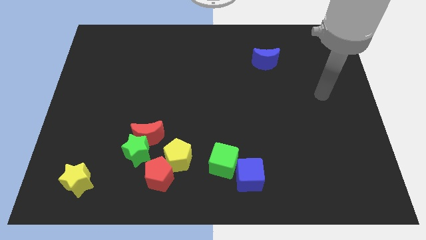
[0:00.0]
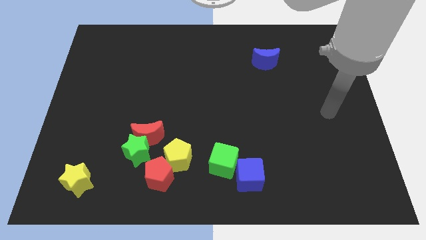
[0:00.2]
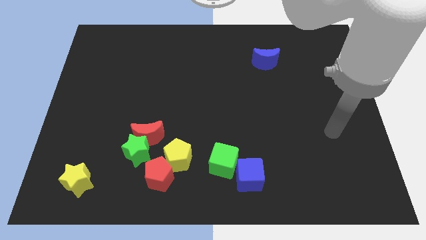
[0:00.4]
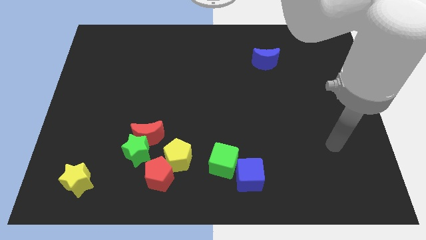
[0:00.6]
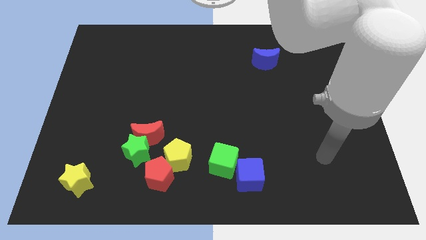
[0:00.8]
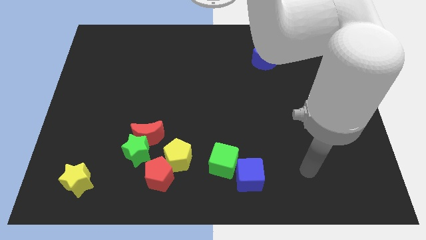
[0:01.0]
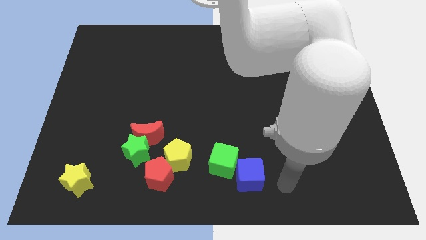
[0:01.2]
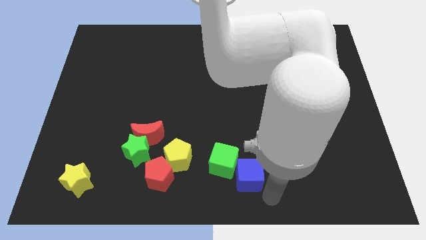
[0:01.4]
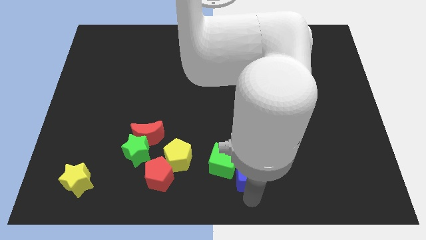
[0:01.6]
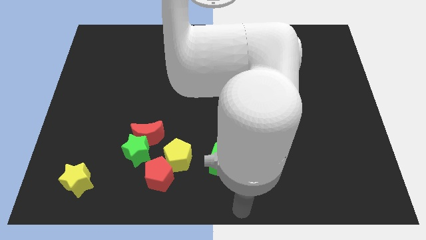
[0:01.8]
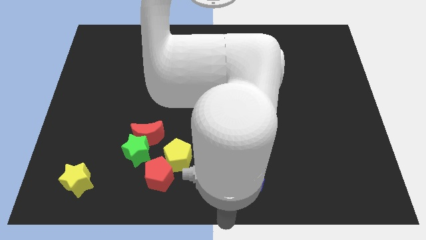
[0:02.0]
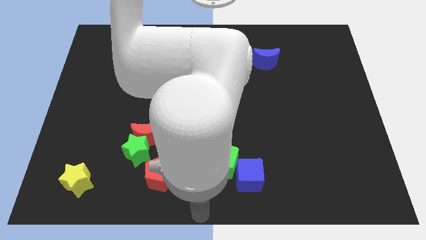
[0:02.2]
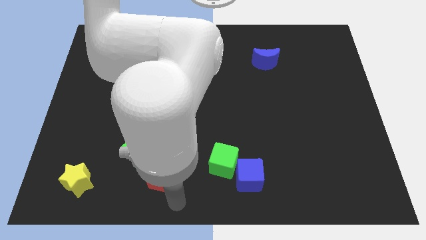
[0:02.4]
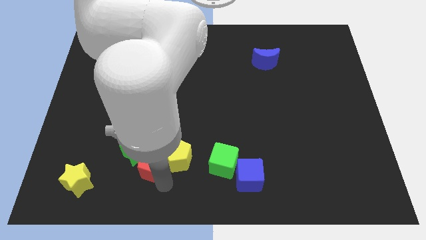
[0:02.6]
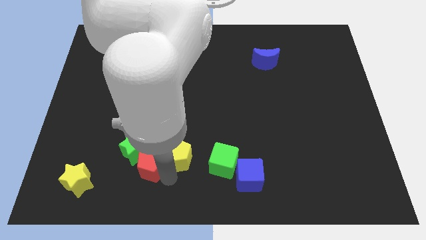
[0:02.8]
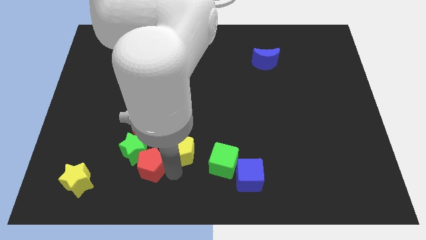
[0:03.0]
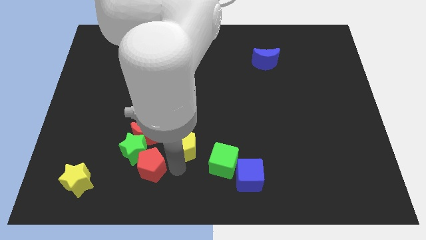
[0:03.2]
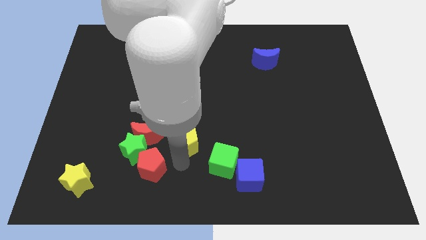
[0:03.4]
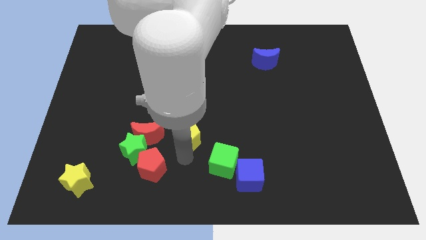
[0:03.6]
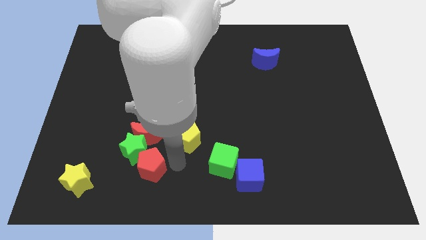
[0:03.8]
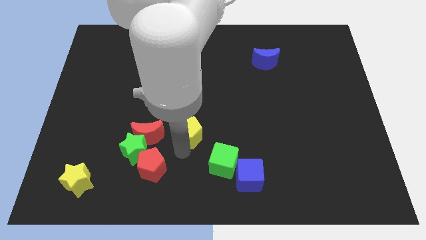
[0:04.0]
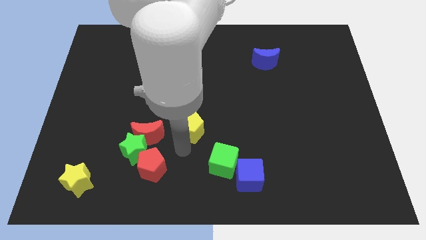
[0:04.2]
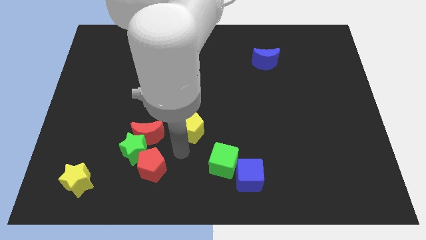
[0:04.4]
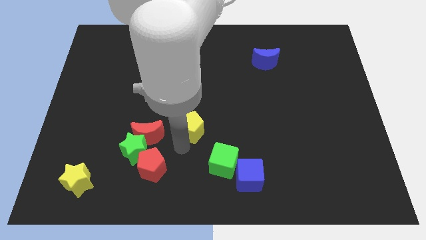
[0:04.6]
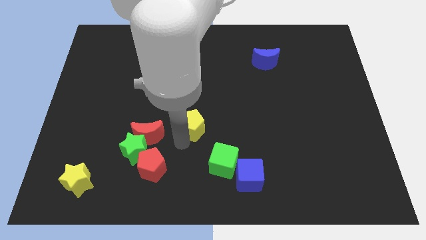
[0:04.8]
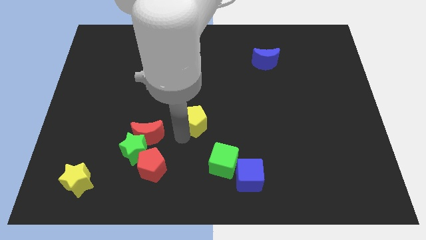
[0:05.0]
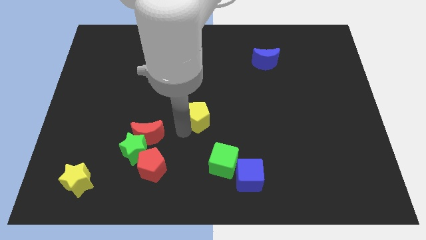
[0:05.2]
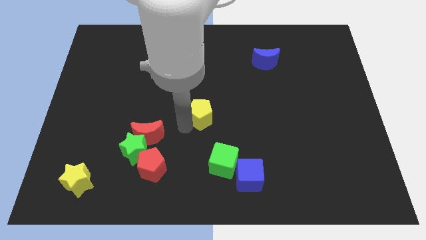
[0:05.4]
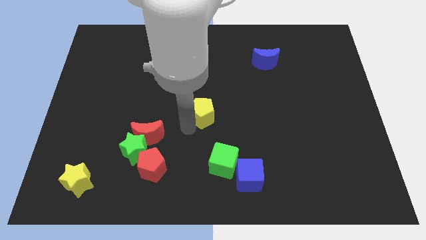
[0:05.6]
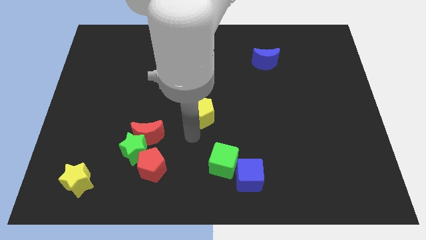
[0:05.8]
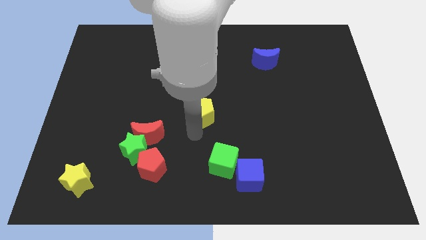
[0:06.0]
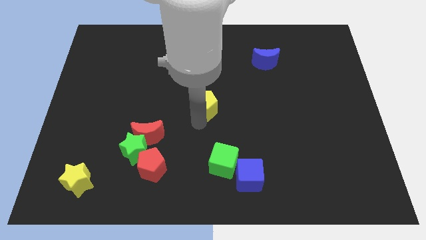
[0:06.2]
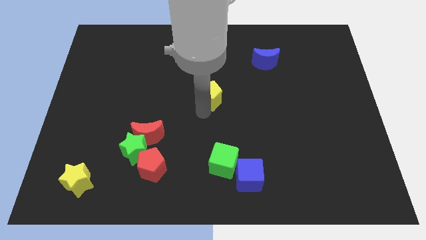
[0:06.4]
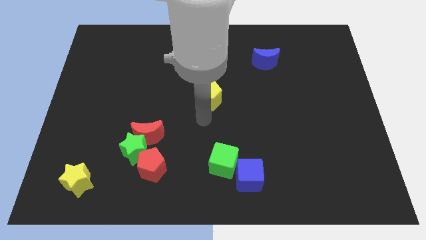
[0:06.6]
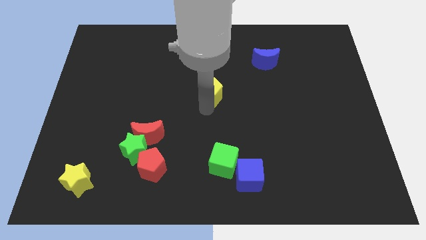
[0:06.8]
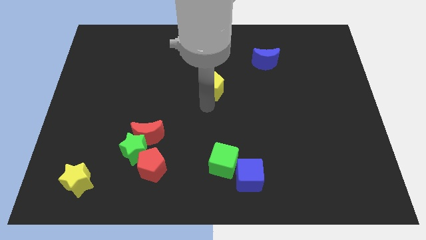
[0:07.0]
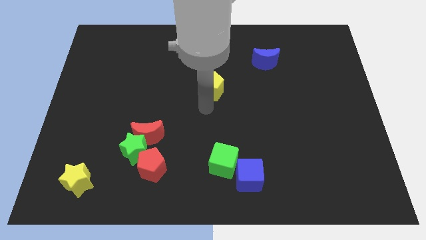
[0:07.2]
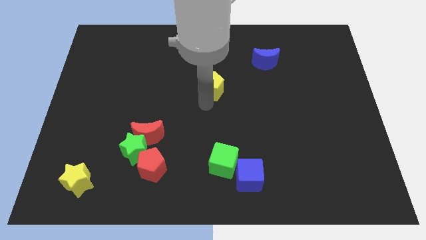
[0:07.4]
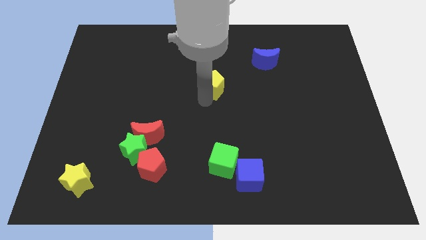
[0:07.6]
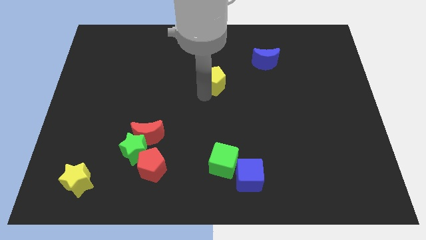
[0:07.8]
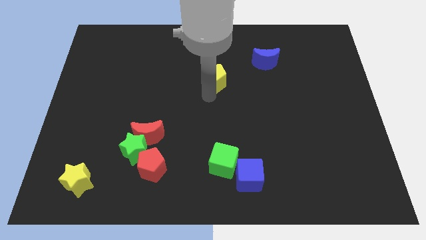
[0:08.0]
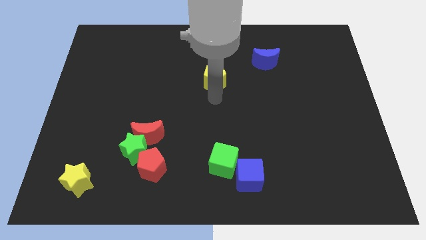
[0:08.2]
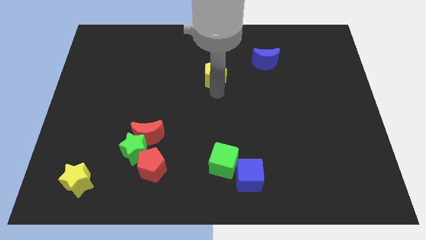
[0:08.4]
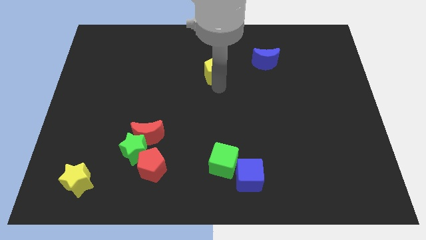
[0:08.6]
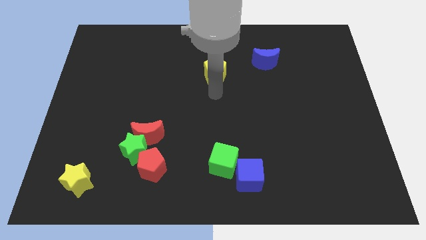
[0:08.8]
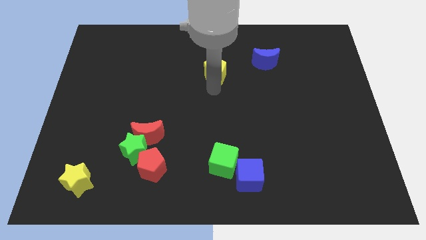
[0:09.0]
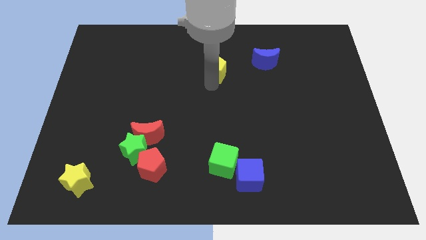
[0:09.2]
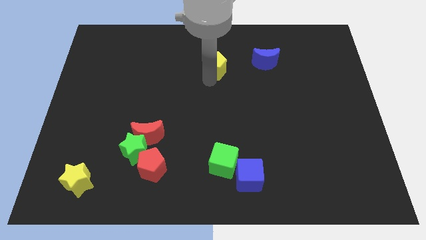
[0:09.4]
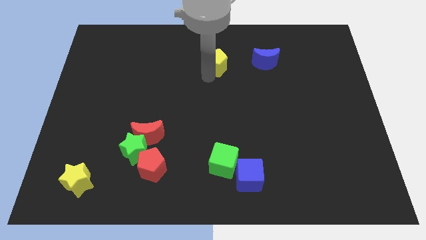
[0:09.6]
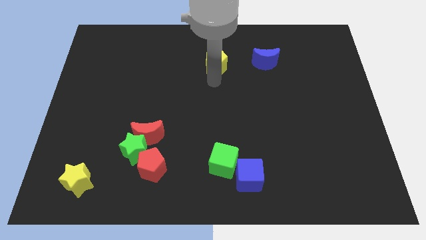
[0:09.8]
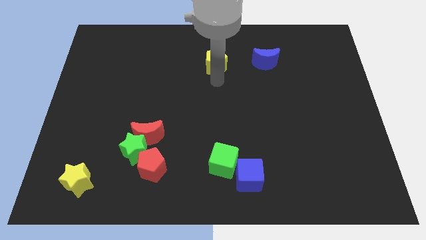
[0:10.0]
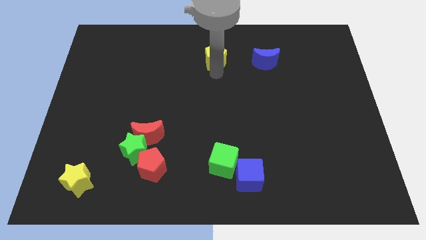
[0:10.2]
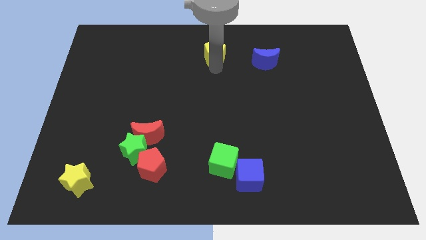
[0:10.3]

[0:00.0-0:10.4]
put the yellow pentagon to the top side

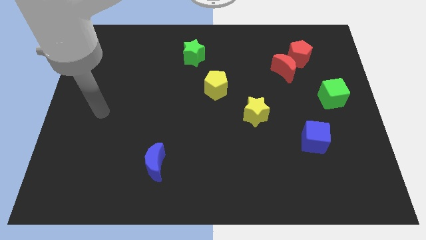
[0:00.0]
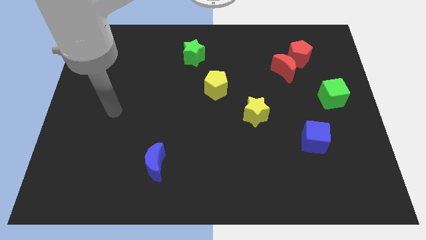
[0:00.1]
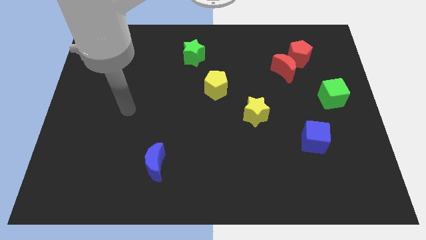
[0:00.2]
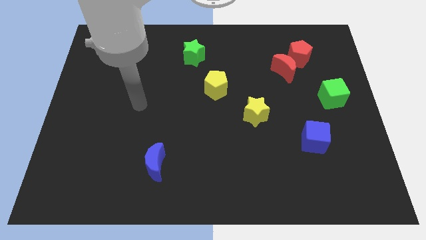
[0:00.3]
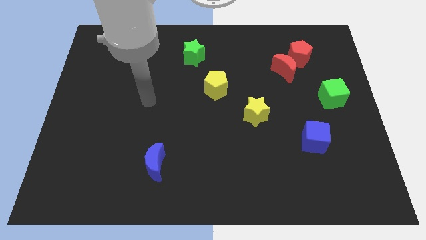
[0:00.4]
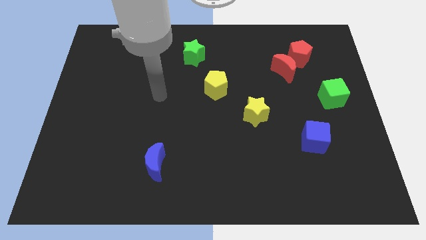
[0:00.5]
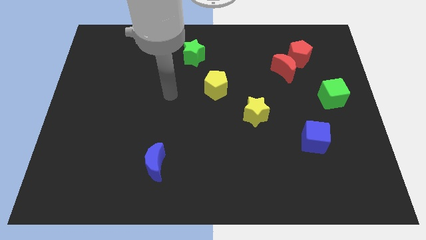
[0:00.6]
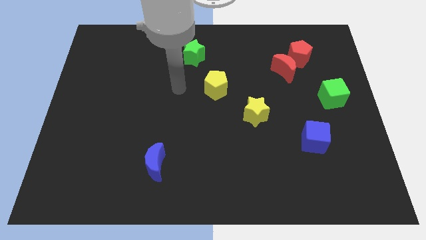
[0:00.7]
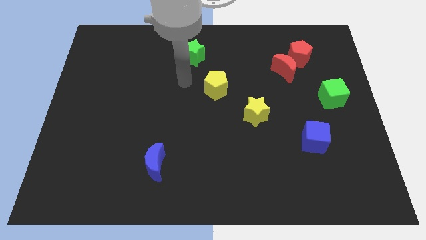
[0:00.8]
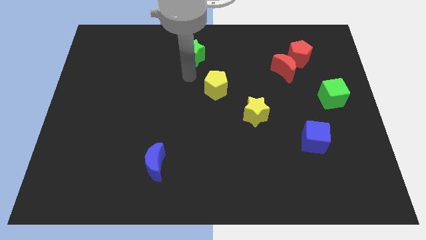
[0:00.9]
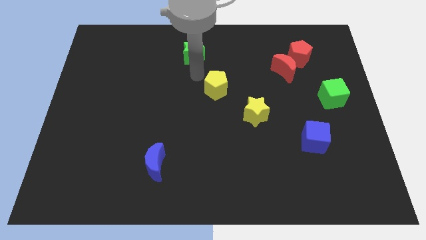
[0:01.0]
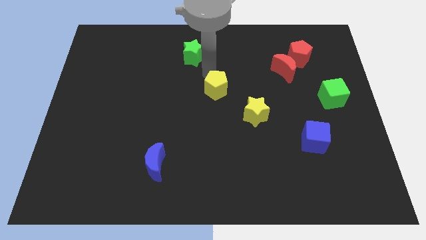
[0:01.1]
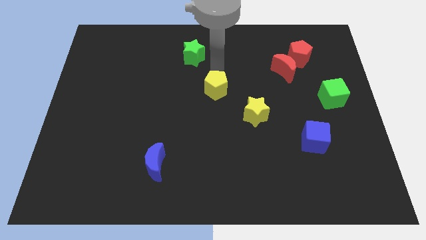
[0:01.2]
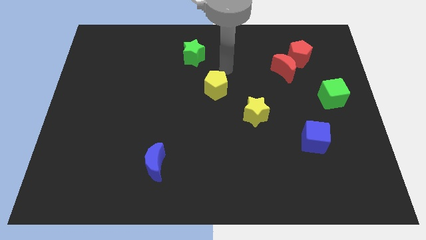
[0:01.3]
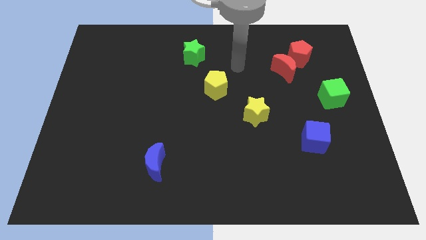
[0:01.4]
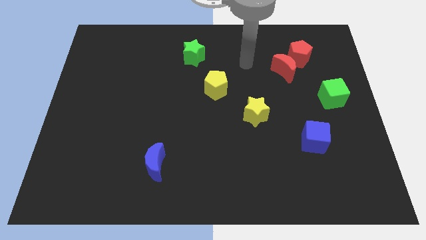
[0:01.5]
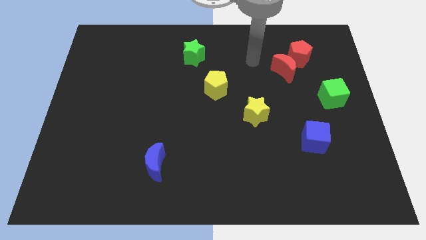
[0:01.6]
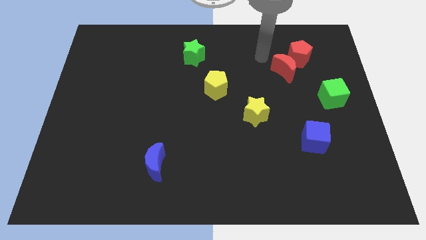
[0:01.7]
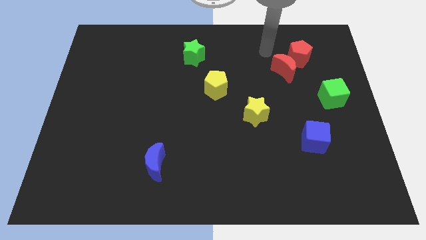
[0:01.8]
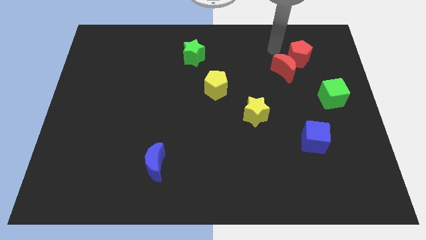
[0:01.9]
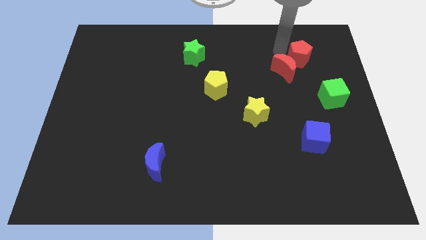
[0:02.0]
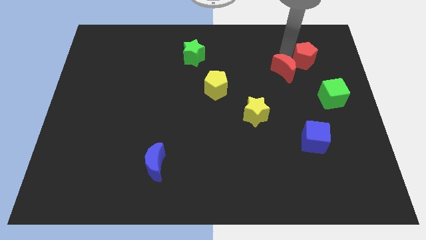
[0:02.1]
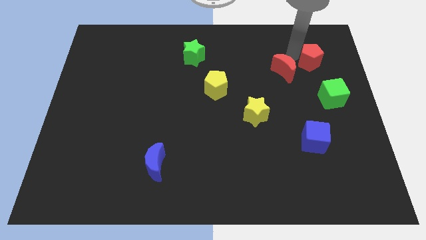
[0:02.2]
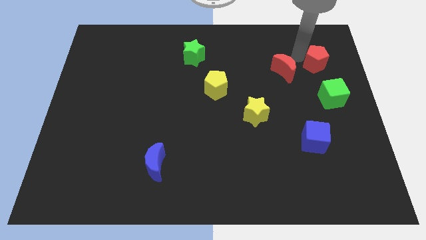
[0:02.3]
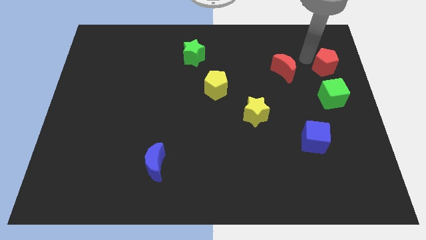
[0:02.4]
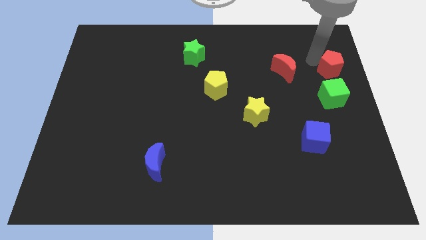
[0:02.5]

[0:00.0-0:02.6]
slide the red pentagon to the right side of the board
